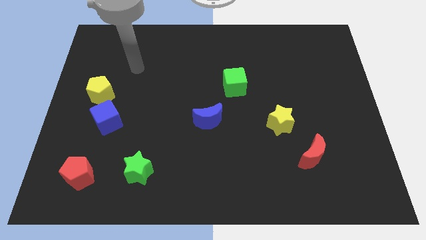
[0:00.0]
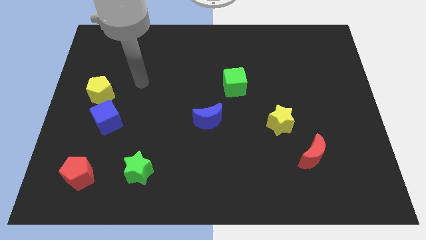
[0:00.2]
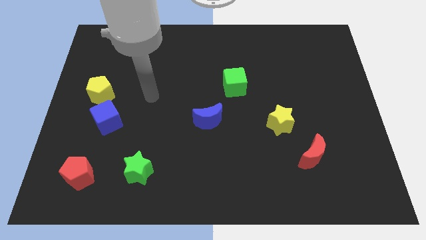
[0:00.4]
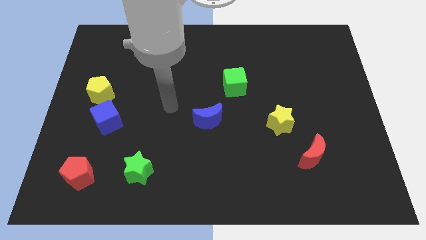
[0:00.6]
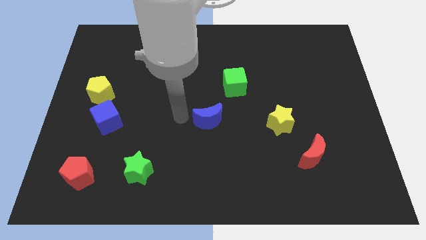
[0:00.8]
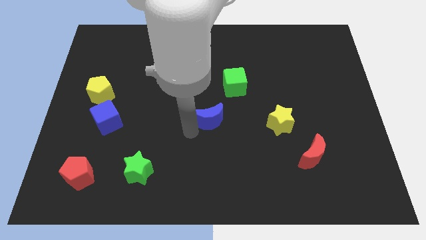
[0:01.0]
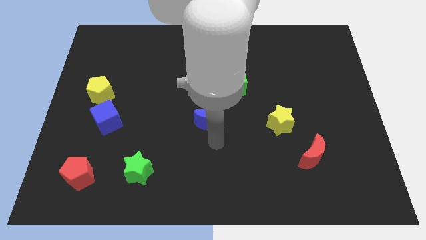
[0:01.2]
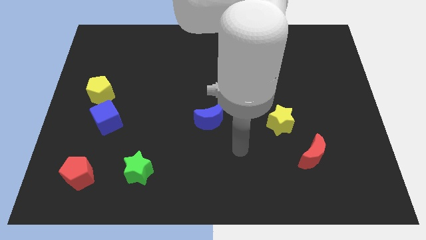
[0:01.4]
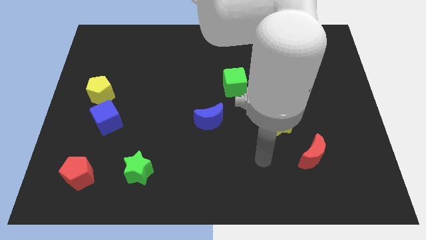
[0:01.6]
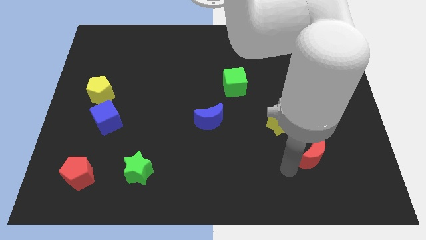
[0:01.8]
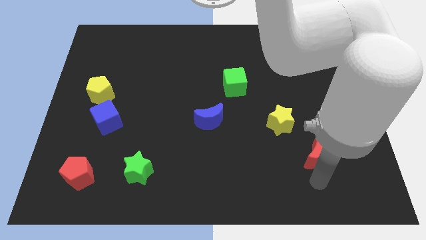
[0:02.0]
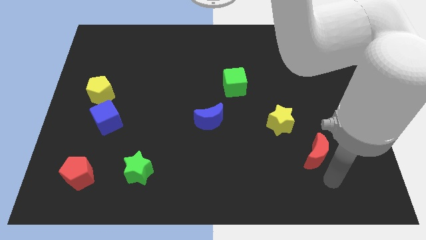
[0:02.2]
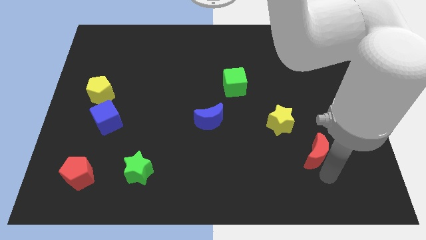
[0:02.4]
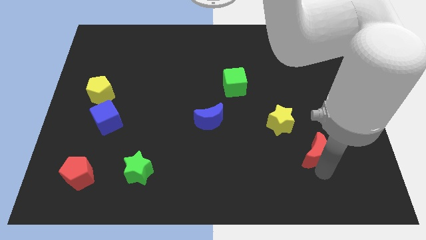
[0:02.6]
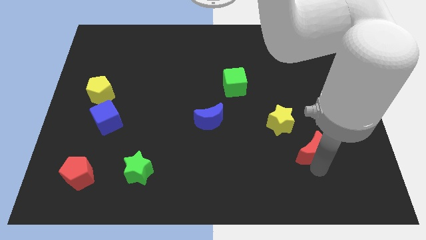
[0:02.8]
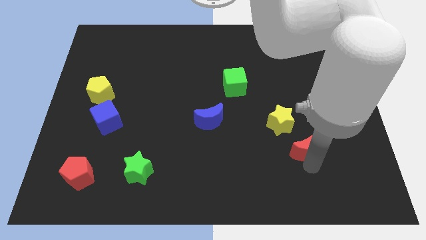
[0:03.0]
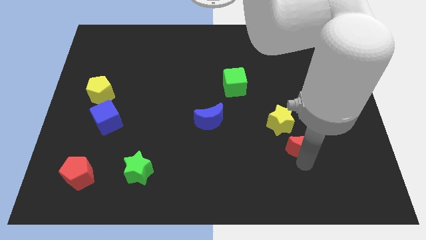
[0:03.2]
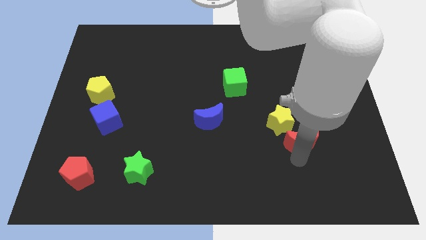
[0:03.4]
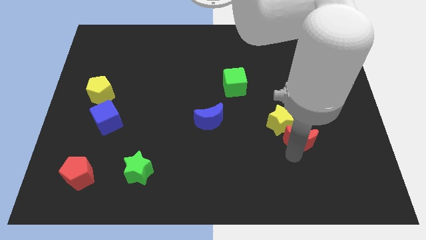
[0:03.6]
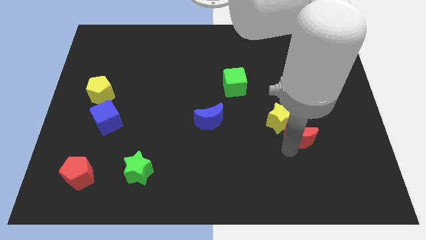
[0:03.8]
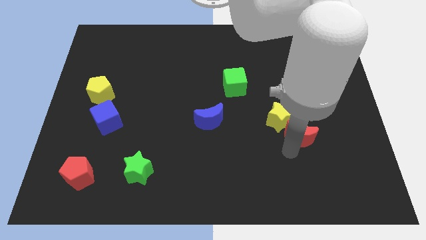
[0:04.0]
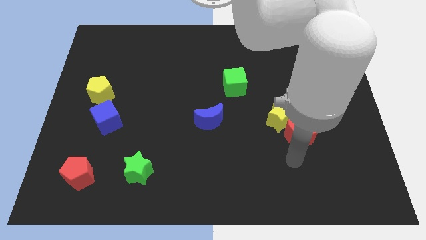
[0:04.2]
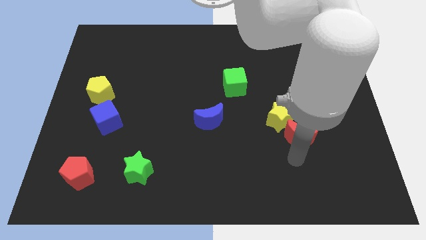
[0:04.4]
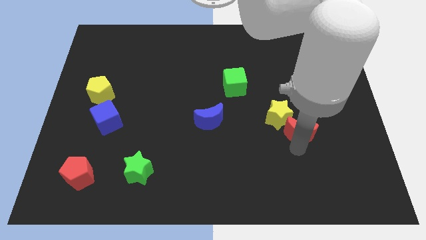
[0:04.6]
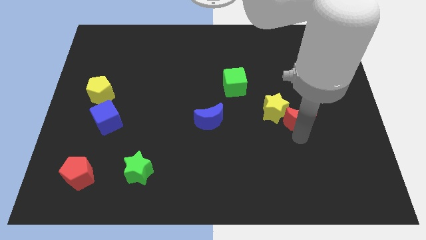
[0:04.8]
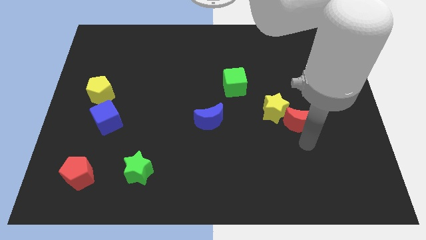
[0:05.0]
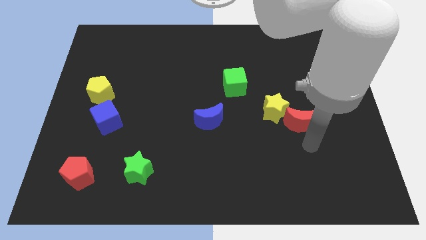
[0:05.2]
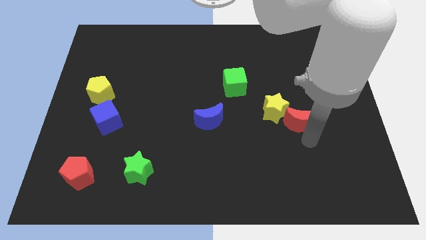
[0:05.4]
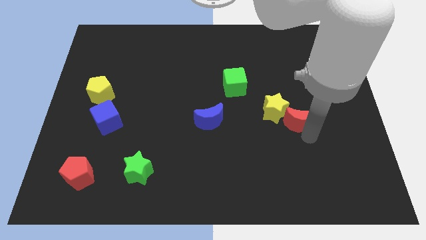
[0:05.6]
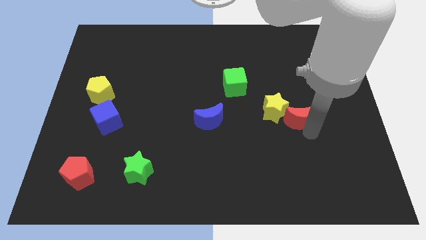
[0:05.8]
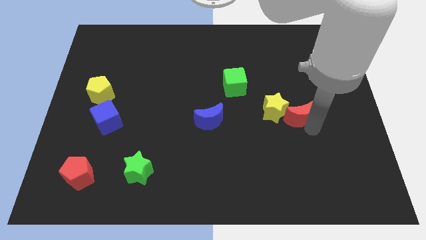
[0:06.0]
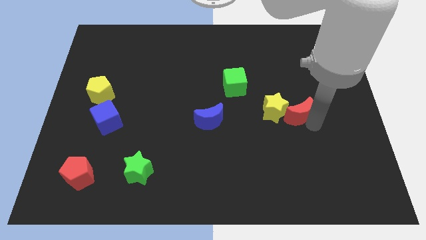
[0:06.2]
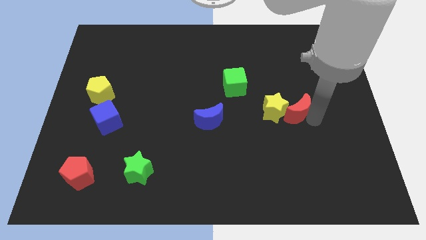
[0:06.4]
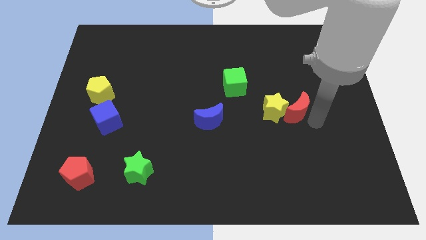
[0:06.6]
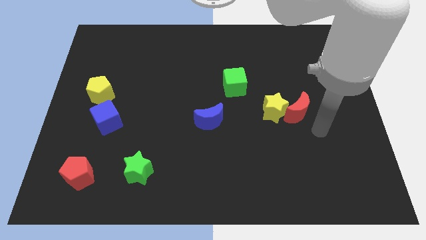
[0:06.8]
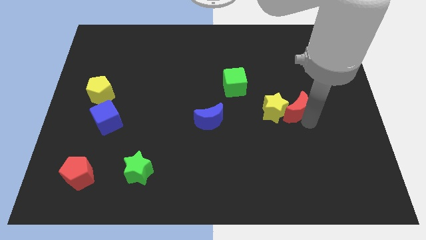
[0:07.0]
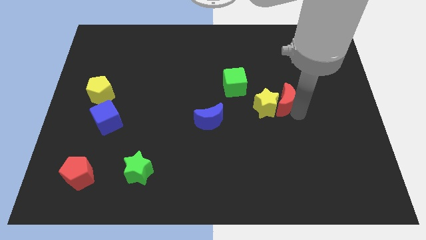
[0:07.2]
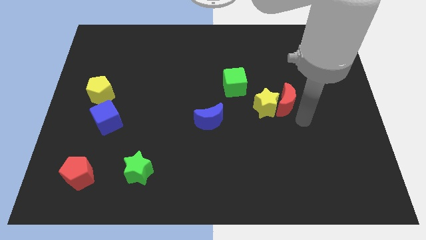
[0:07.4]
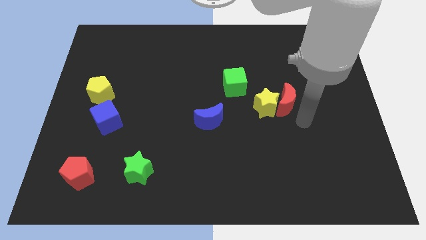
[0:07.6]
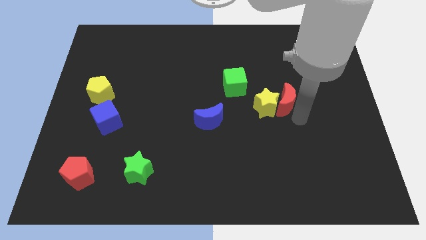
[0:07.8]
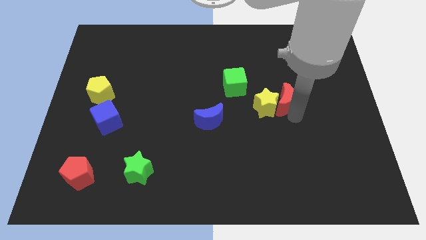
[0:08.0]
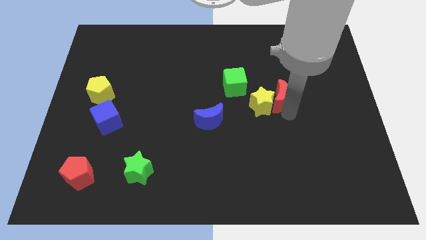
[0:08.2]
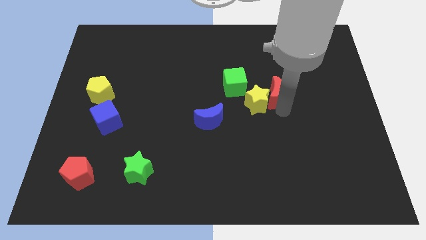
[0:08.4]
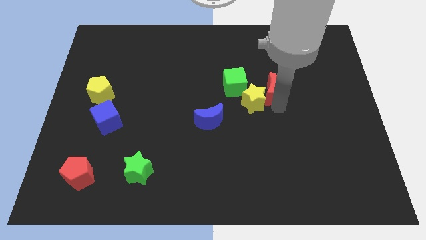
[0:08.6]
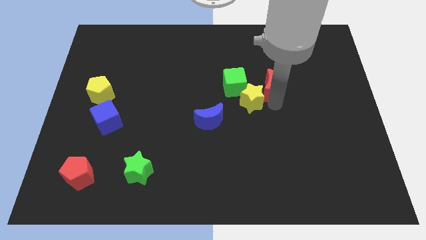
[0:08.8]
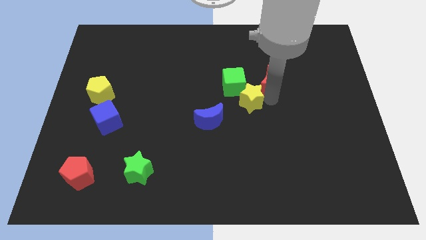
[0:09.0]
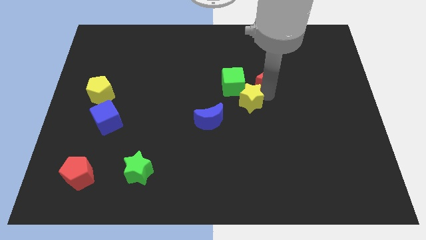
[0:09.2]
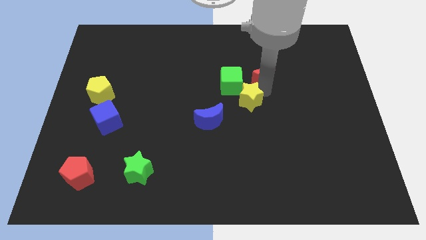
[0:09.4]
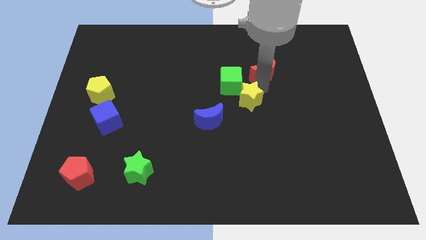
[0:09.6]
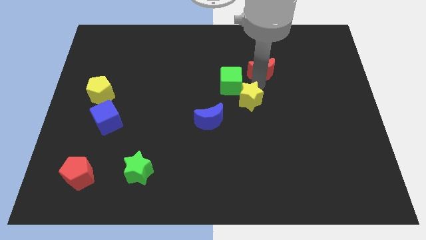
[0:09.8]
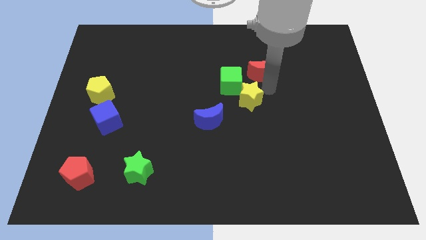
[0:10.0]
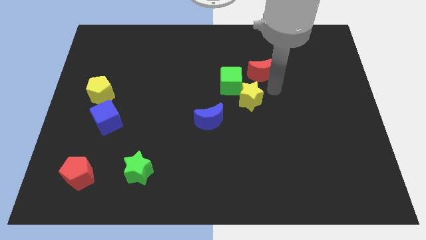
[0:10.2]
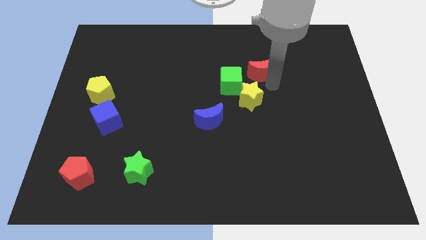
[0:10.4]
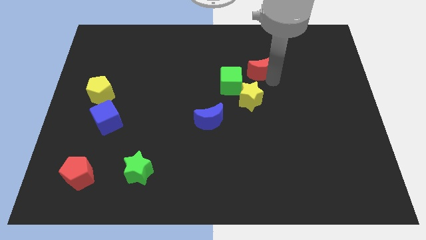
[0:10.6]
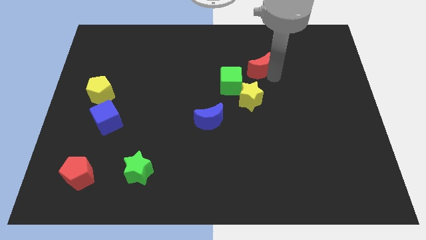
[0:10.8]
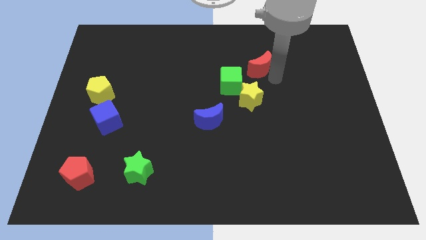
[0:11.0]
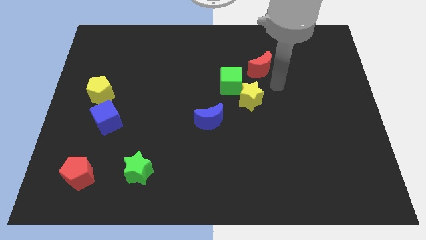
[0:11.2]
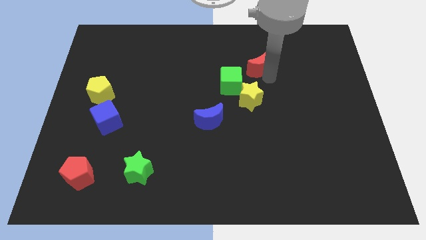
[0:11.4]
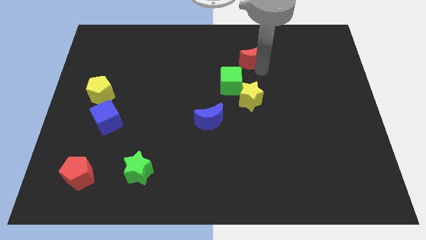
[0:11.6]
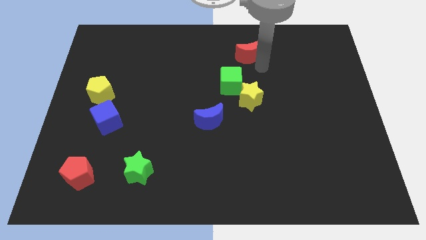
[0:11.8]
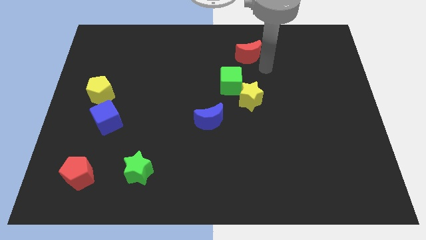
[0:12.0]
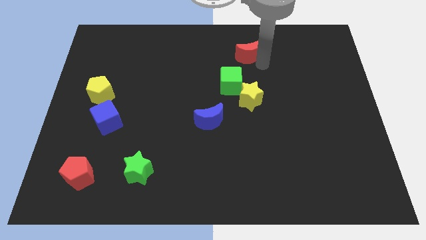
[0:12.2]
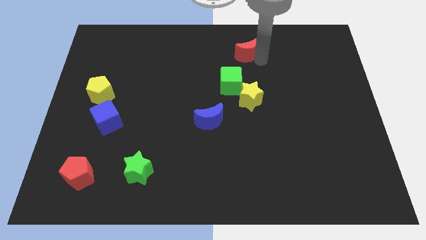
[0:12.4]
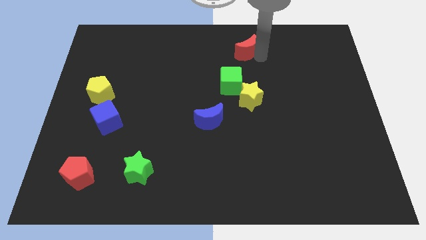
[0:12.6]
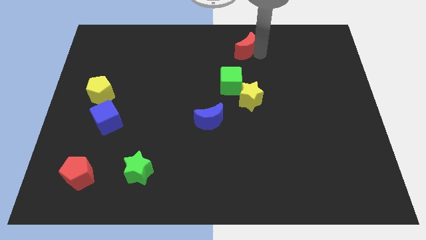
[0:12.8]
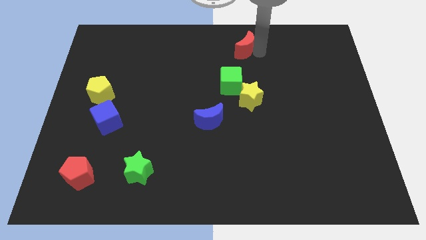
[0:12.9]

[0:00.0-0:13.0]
push the red moon to the top side
